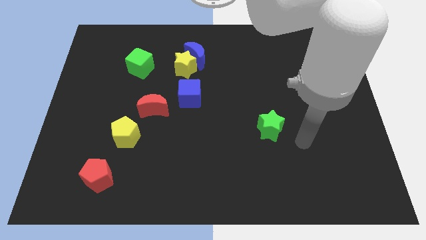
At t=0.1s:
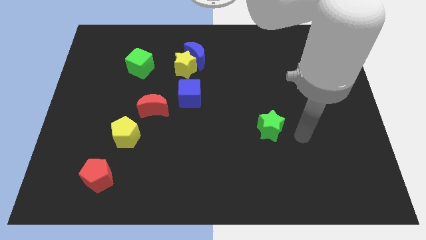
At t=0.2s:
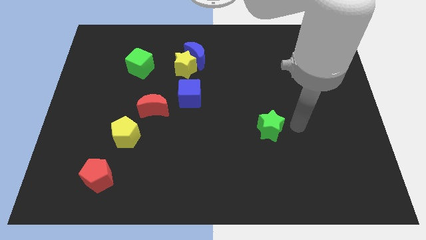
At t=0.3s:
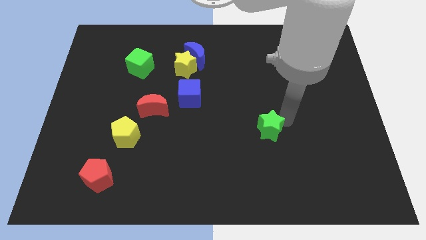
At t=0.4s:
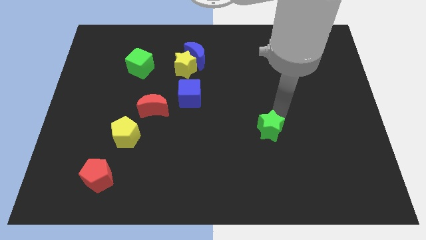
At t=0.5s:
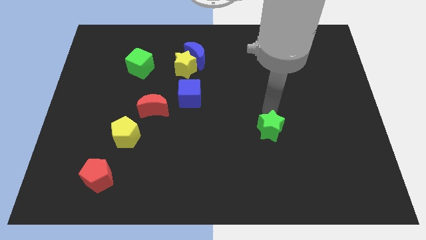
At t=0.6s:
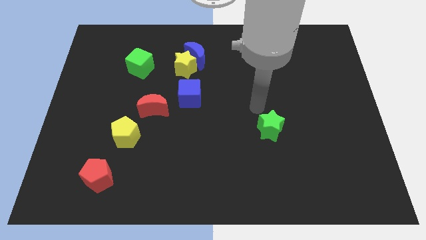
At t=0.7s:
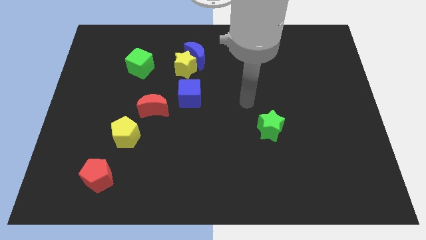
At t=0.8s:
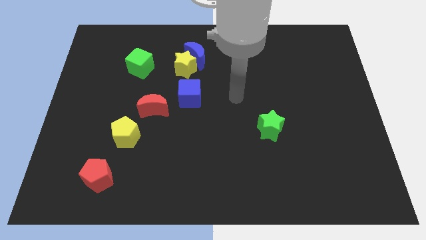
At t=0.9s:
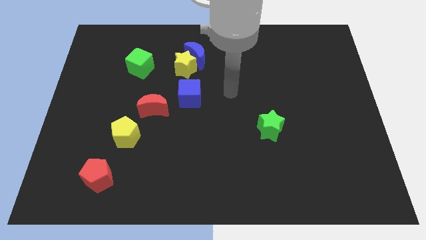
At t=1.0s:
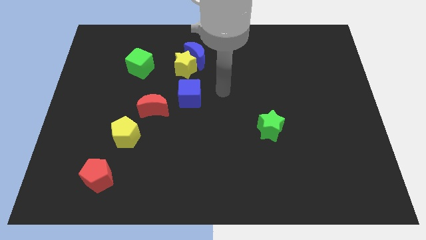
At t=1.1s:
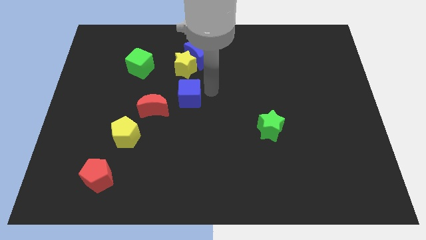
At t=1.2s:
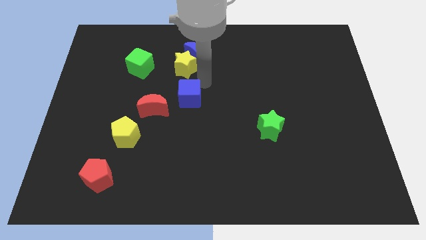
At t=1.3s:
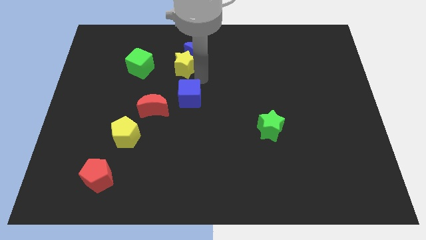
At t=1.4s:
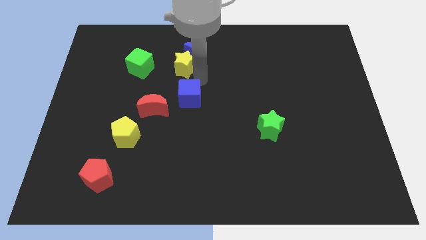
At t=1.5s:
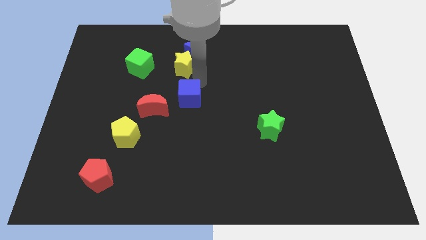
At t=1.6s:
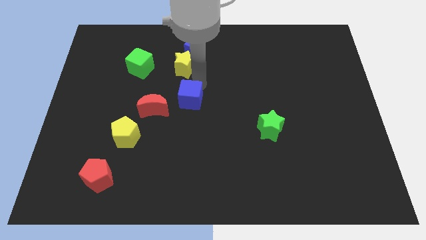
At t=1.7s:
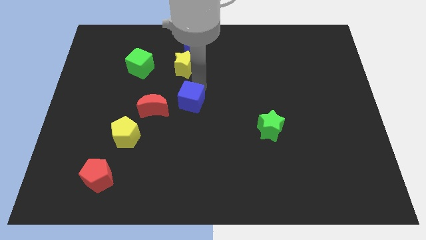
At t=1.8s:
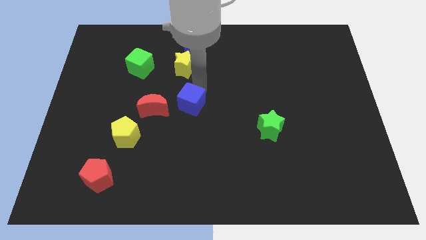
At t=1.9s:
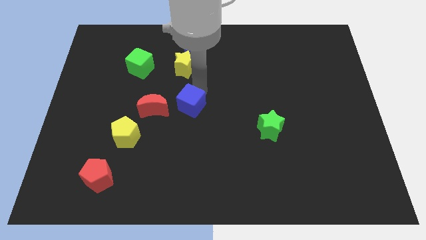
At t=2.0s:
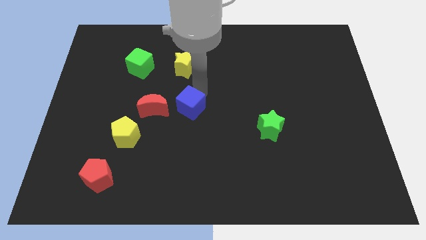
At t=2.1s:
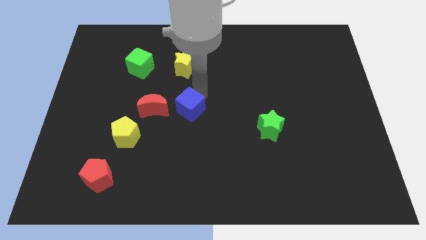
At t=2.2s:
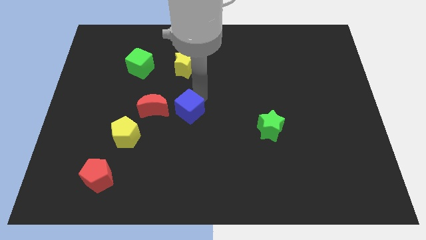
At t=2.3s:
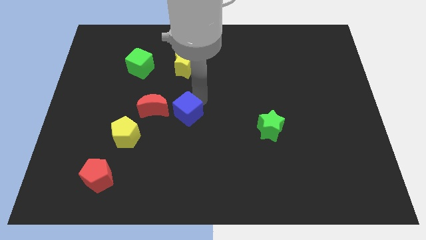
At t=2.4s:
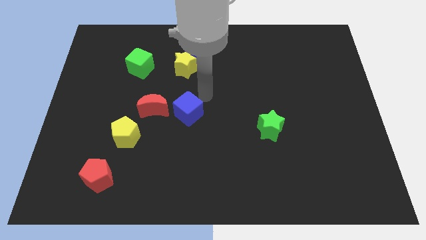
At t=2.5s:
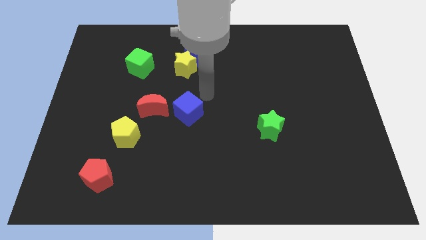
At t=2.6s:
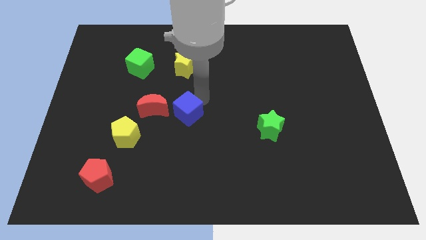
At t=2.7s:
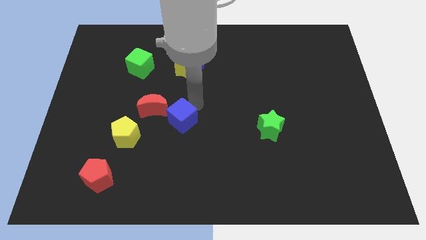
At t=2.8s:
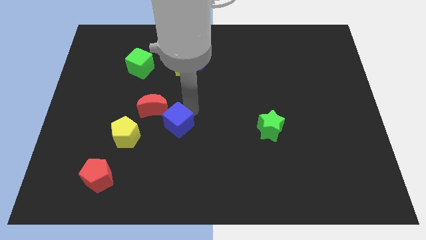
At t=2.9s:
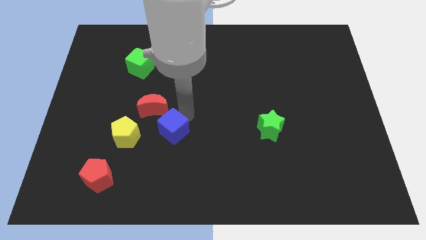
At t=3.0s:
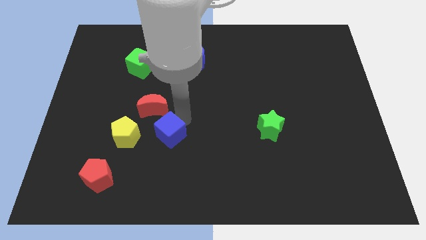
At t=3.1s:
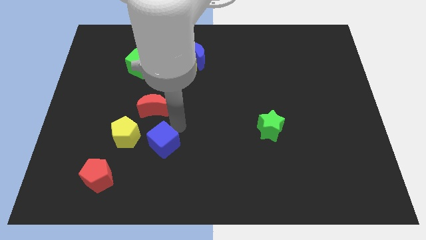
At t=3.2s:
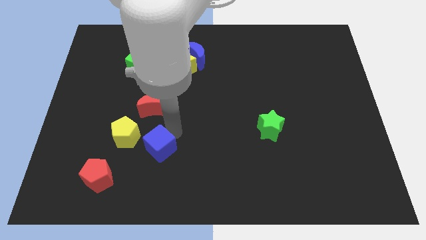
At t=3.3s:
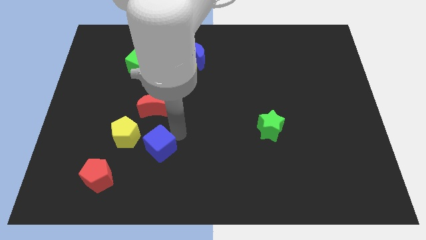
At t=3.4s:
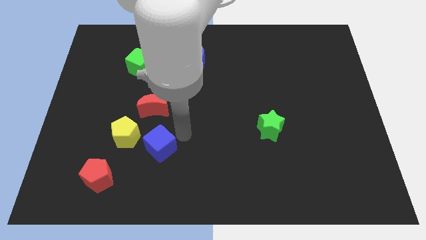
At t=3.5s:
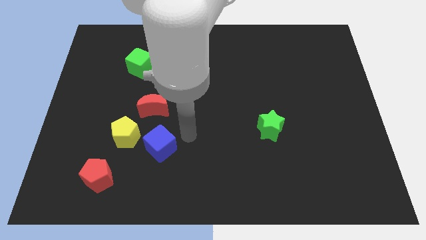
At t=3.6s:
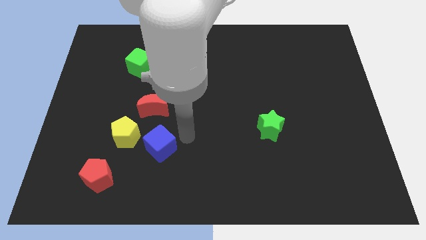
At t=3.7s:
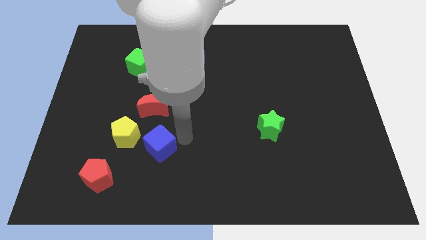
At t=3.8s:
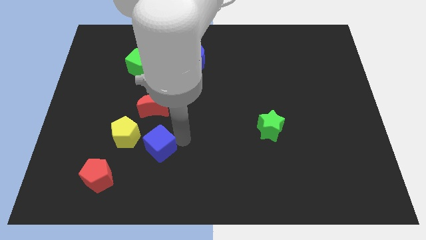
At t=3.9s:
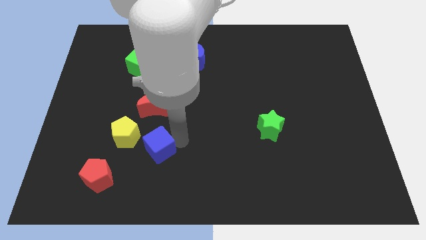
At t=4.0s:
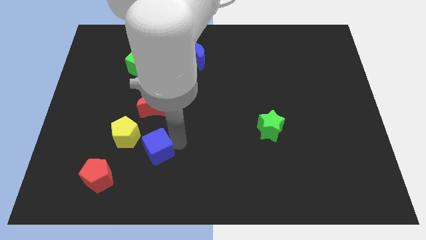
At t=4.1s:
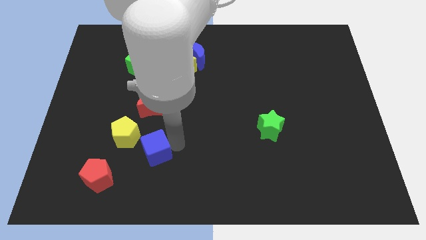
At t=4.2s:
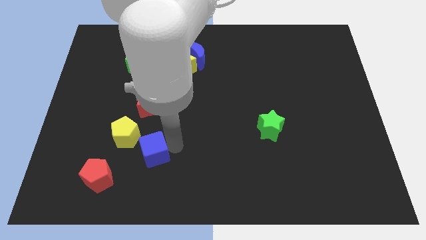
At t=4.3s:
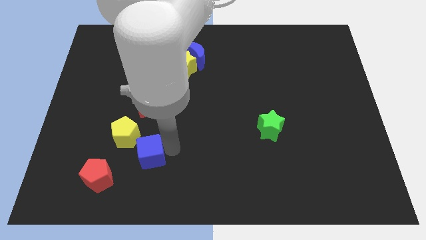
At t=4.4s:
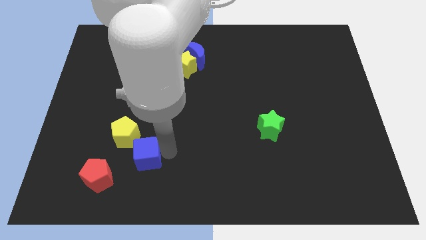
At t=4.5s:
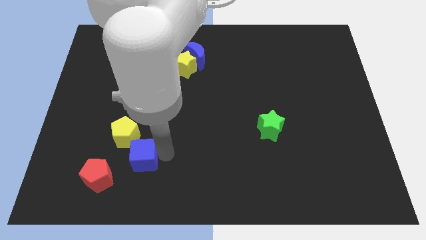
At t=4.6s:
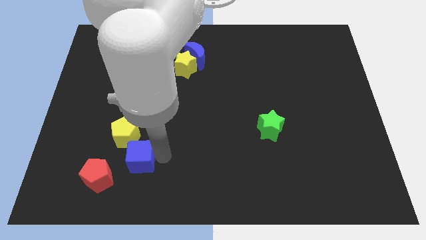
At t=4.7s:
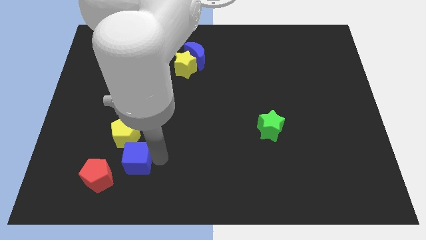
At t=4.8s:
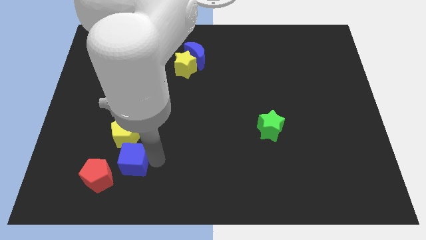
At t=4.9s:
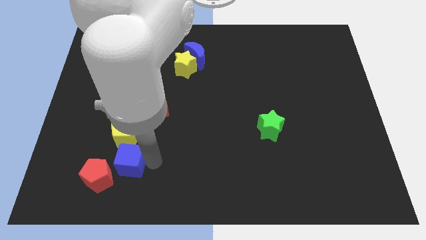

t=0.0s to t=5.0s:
push the blue cube downwards and then left

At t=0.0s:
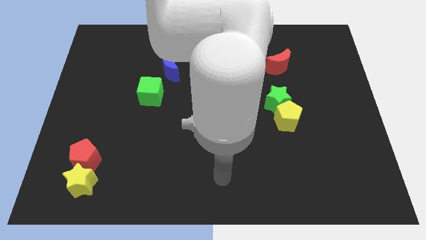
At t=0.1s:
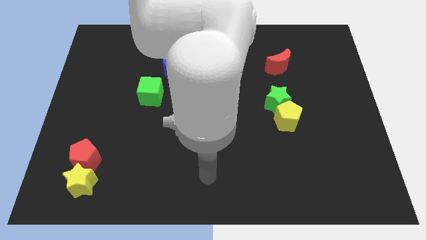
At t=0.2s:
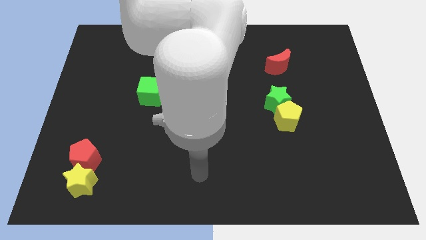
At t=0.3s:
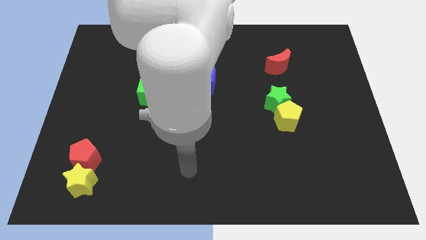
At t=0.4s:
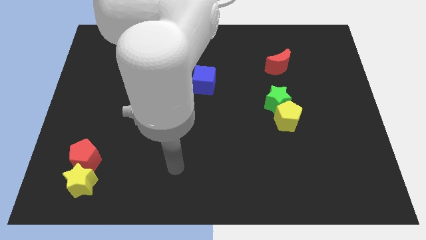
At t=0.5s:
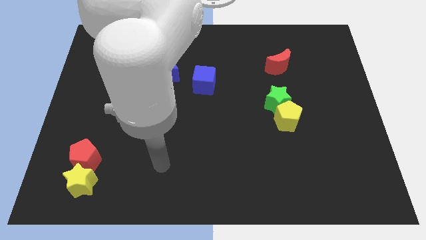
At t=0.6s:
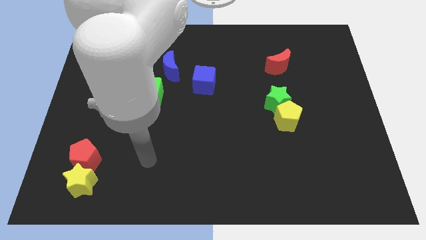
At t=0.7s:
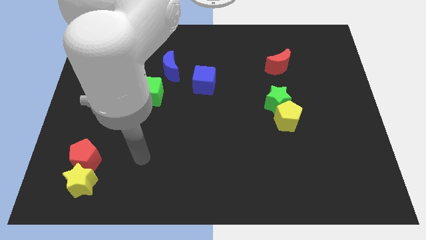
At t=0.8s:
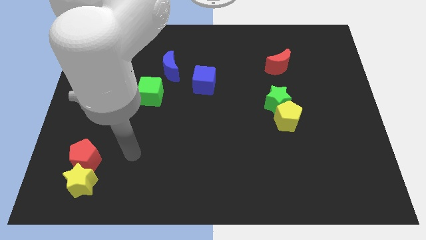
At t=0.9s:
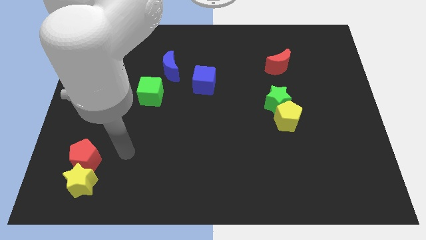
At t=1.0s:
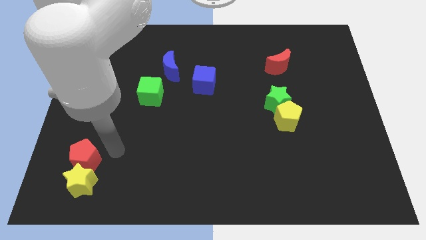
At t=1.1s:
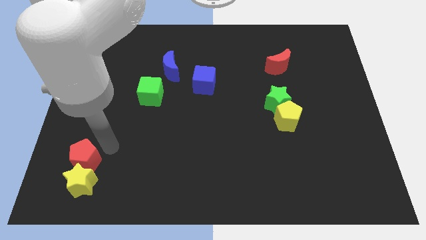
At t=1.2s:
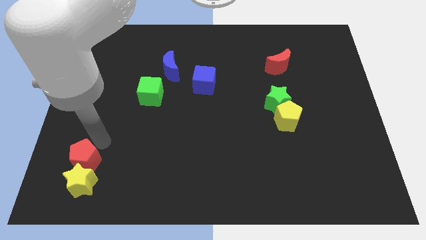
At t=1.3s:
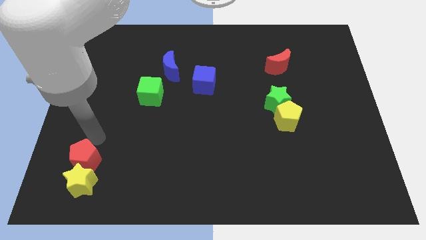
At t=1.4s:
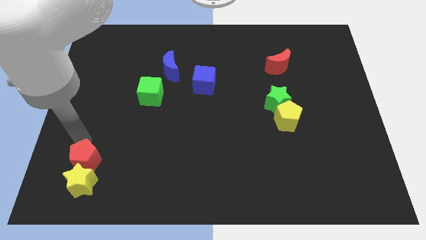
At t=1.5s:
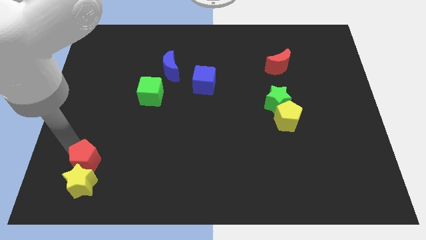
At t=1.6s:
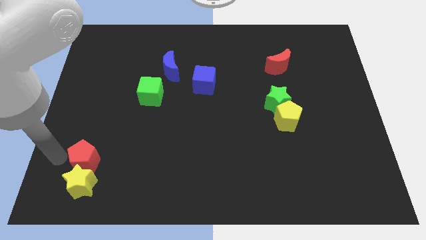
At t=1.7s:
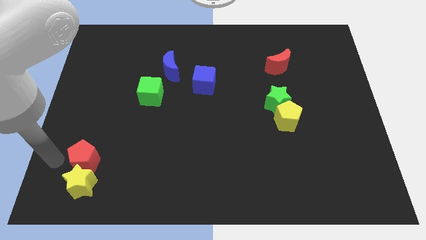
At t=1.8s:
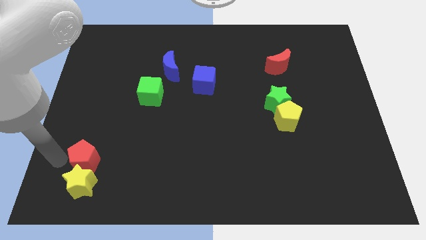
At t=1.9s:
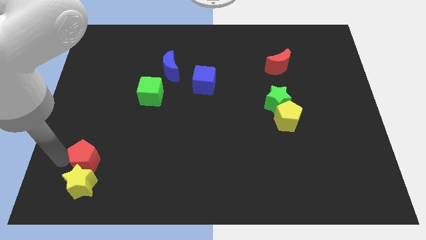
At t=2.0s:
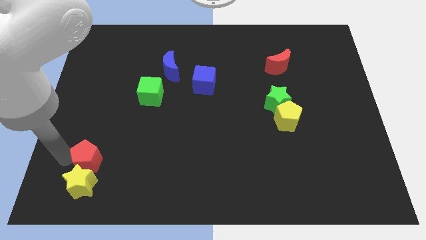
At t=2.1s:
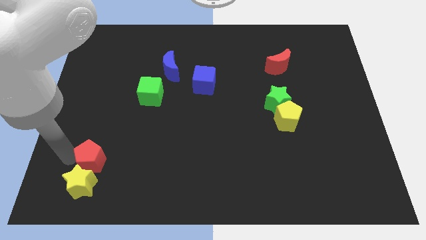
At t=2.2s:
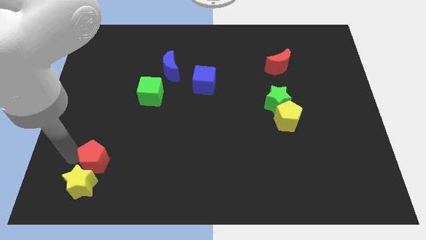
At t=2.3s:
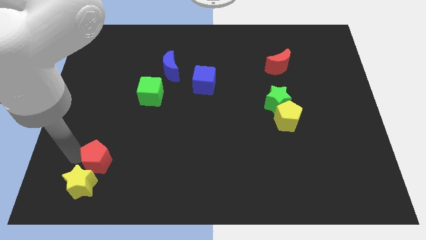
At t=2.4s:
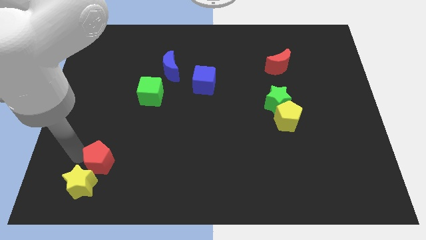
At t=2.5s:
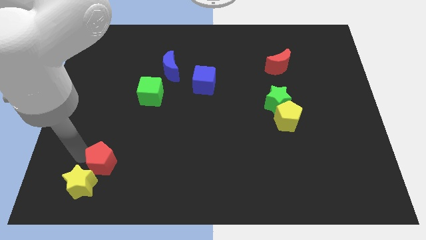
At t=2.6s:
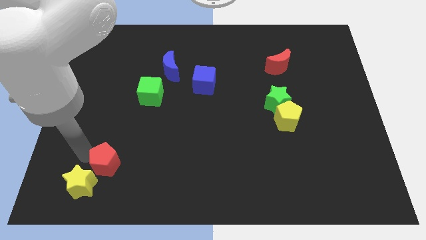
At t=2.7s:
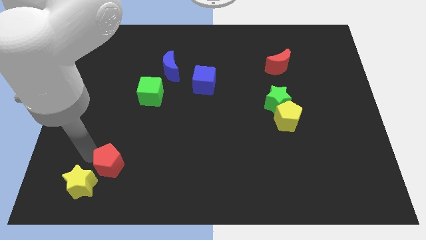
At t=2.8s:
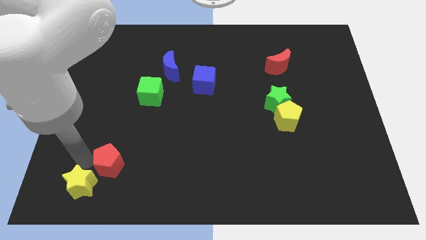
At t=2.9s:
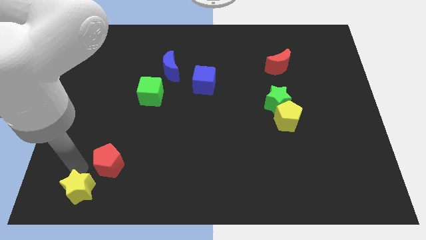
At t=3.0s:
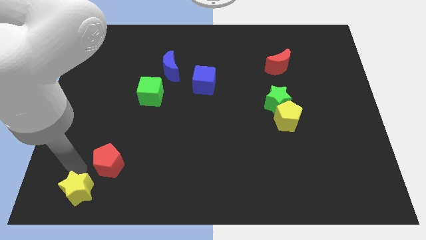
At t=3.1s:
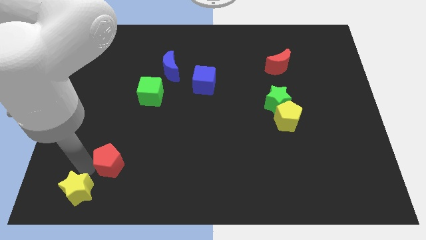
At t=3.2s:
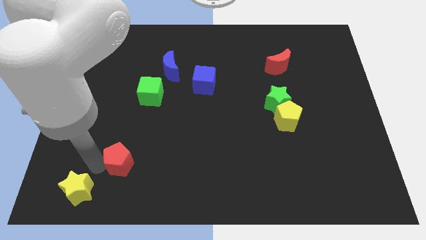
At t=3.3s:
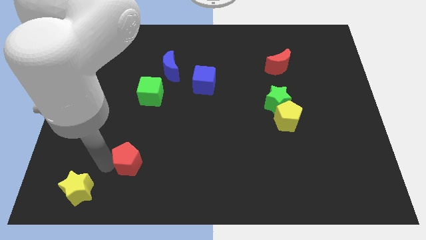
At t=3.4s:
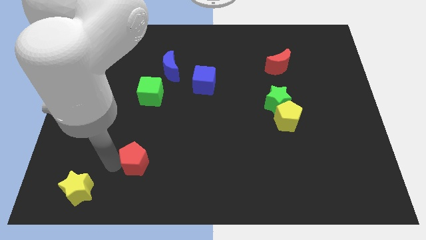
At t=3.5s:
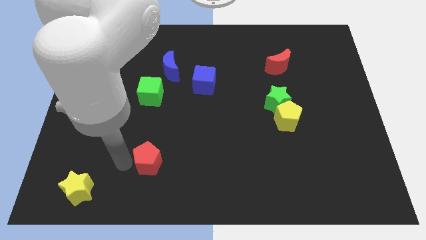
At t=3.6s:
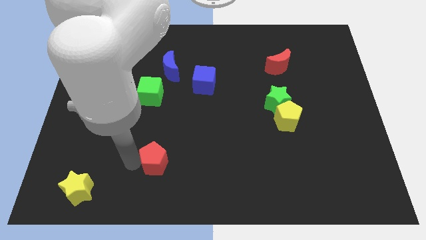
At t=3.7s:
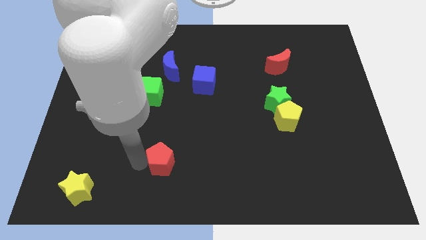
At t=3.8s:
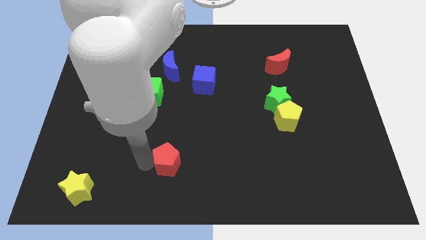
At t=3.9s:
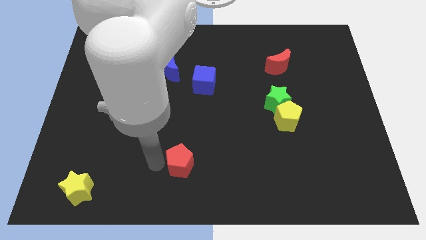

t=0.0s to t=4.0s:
push the red pentagon to the right
